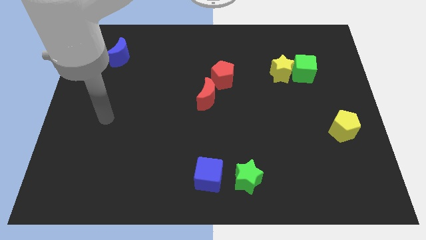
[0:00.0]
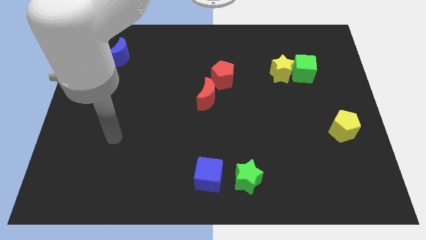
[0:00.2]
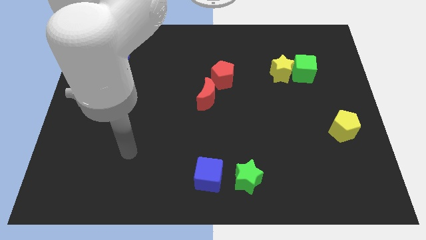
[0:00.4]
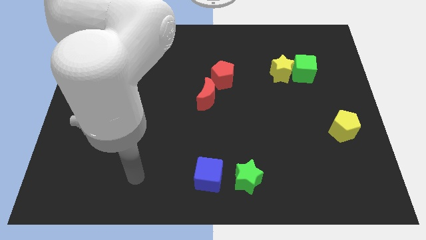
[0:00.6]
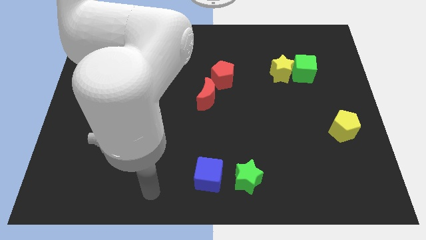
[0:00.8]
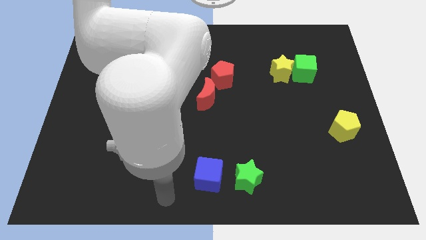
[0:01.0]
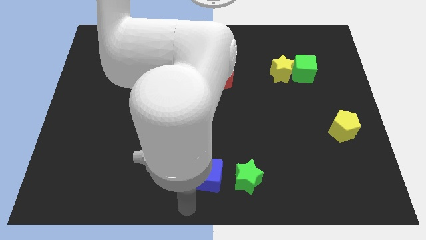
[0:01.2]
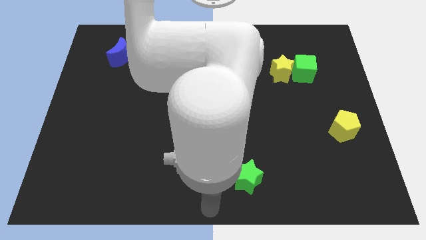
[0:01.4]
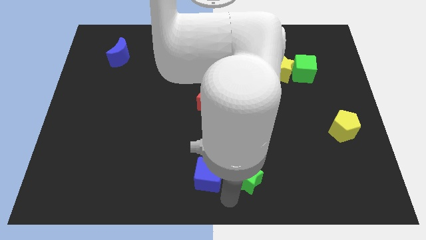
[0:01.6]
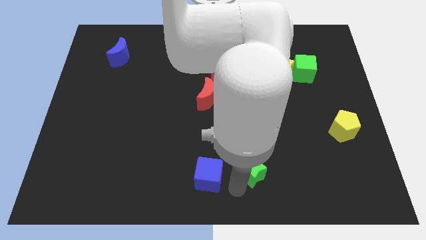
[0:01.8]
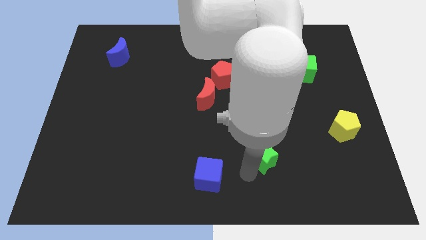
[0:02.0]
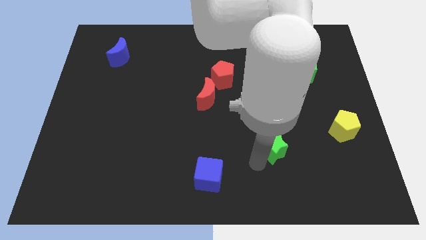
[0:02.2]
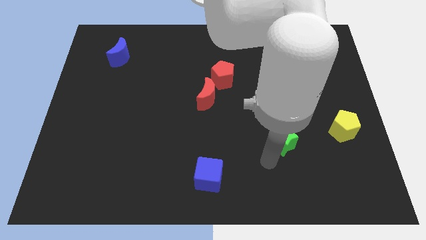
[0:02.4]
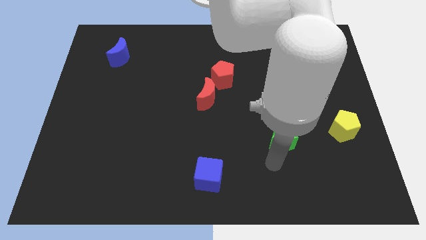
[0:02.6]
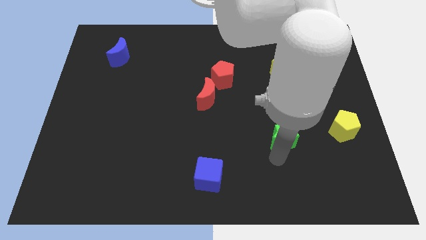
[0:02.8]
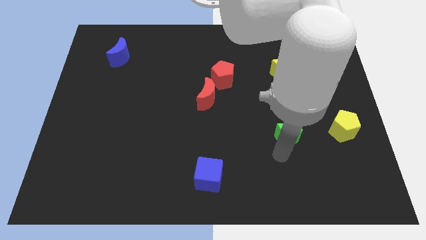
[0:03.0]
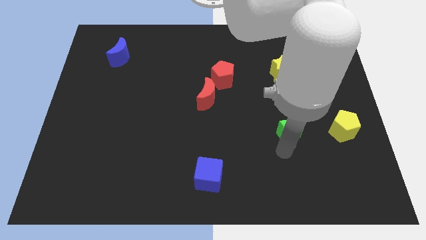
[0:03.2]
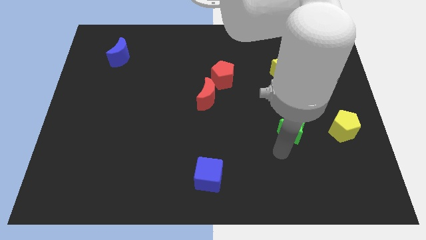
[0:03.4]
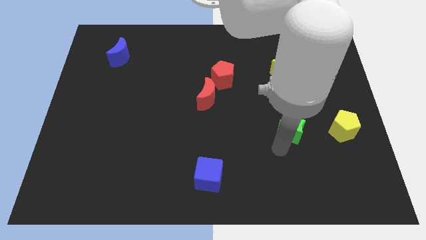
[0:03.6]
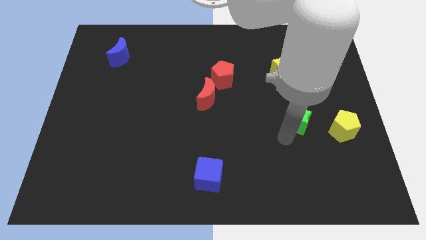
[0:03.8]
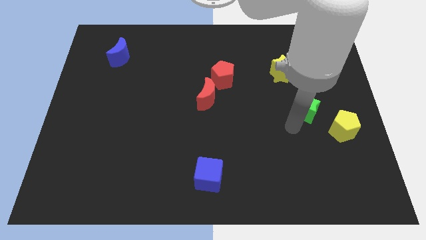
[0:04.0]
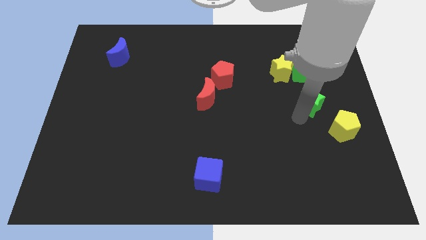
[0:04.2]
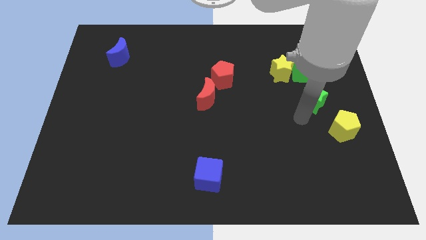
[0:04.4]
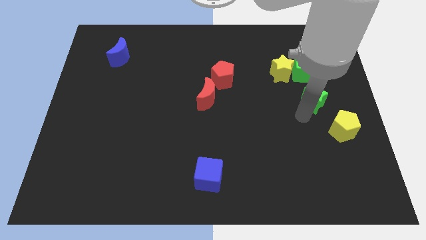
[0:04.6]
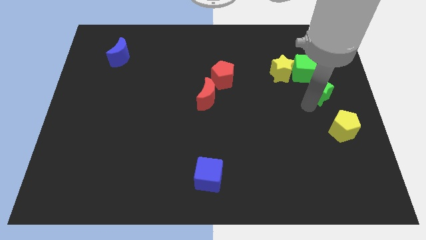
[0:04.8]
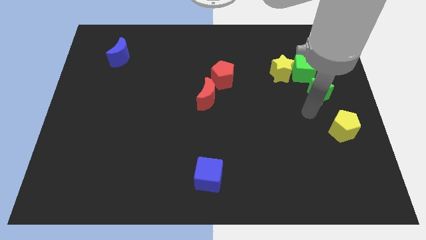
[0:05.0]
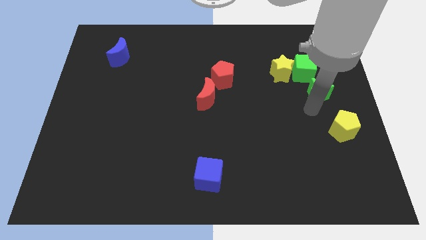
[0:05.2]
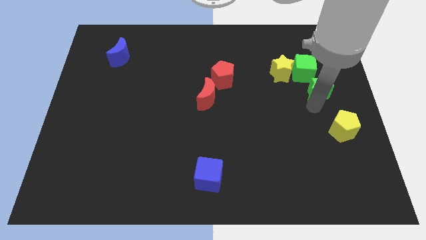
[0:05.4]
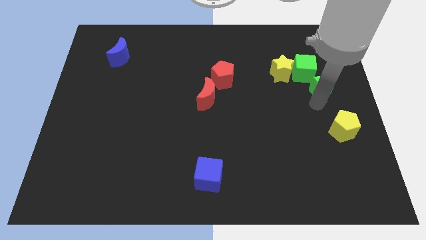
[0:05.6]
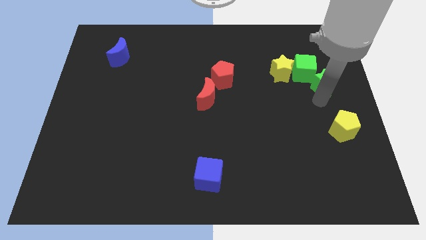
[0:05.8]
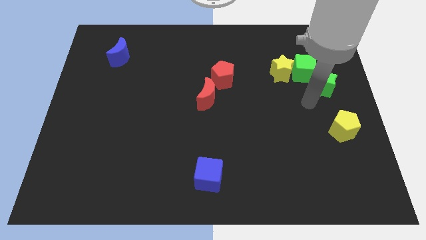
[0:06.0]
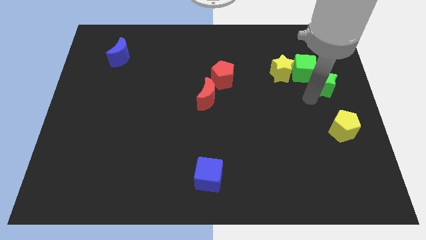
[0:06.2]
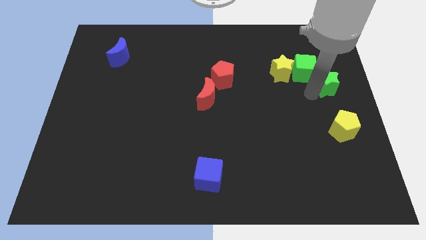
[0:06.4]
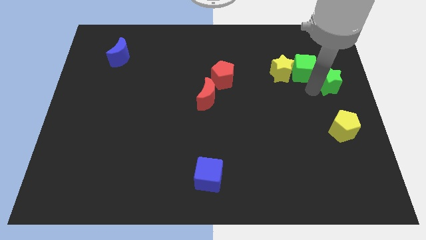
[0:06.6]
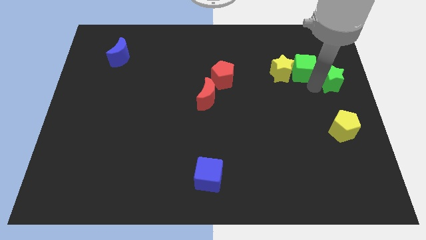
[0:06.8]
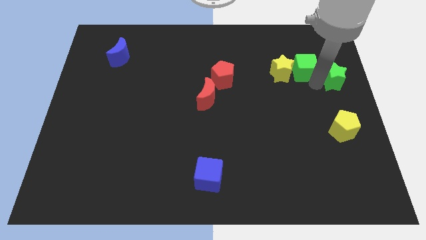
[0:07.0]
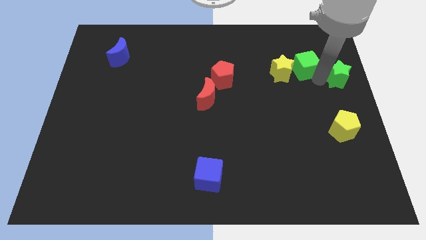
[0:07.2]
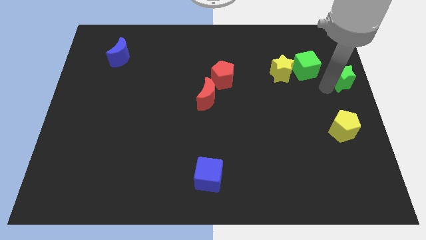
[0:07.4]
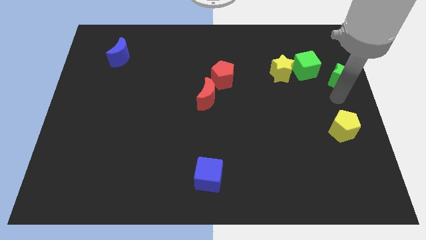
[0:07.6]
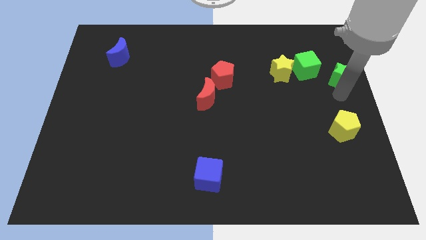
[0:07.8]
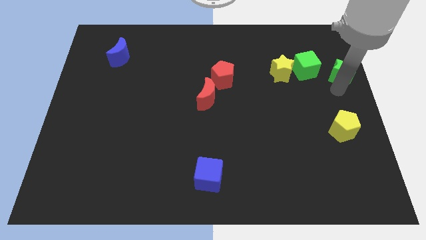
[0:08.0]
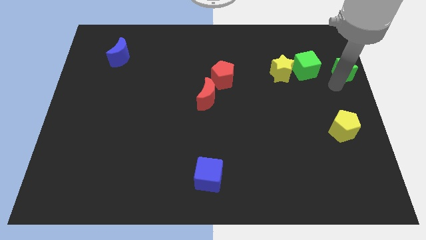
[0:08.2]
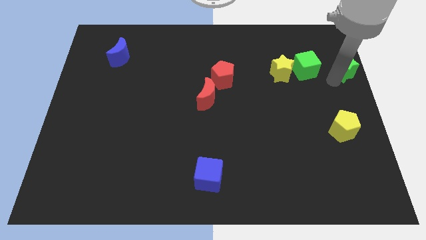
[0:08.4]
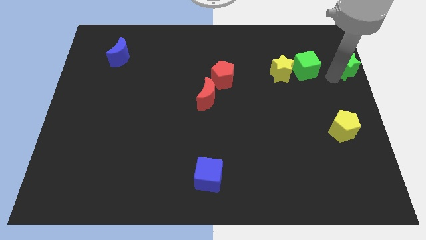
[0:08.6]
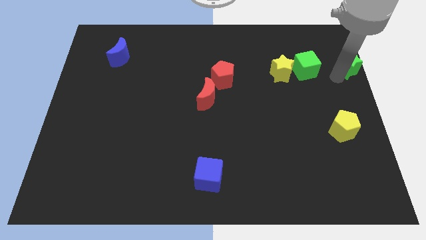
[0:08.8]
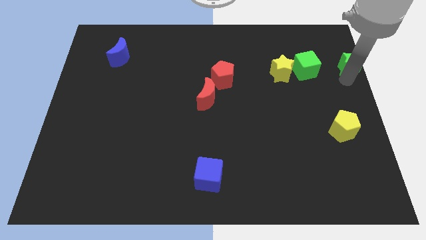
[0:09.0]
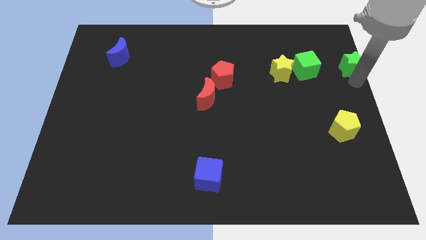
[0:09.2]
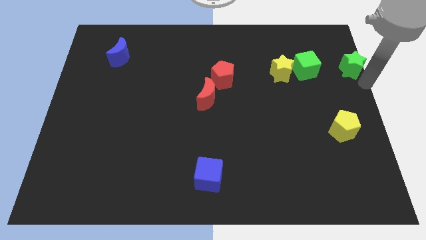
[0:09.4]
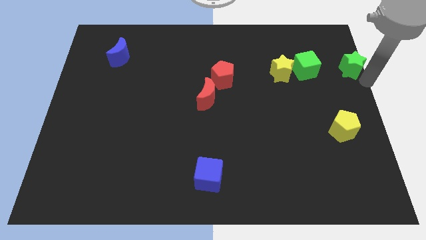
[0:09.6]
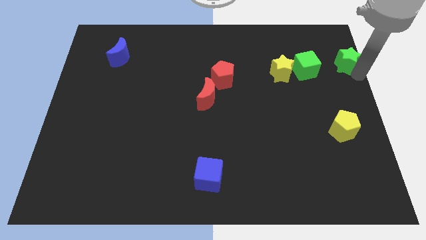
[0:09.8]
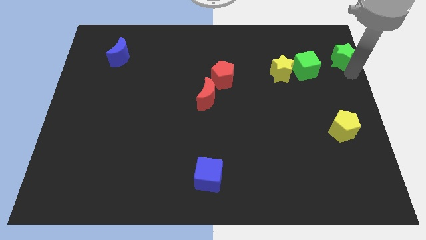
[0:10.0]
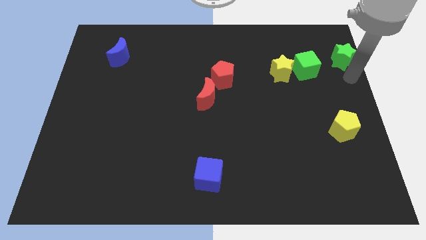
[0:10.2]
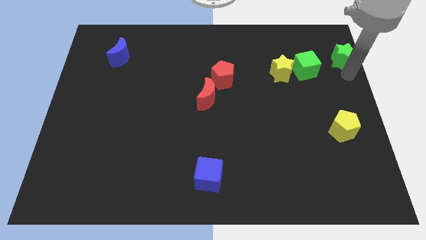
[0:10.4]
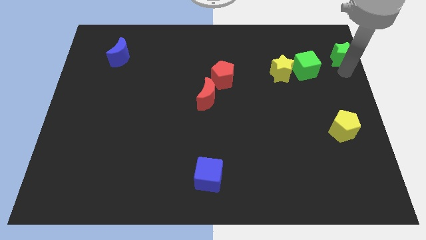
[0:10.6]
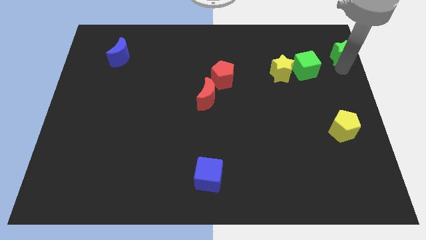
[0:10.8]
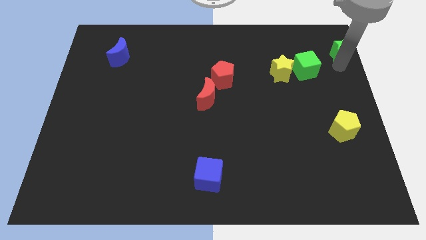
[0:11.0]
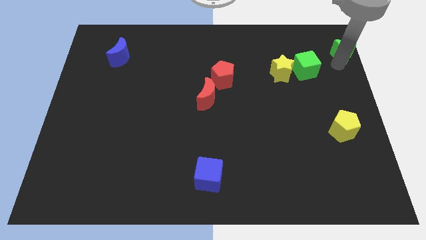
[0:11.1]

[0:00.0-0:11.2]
put the green star to the upper right corner

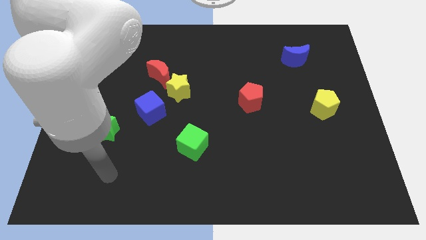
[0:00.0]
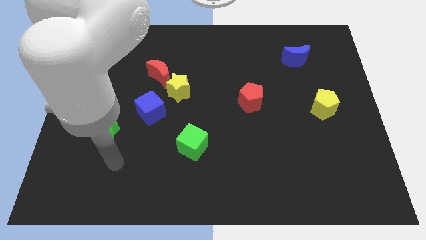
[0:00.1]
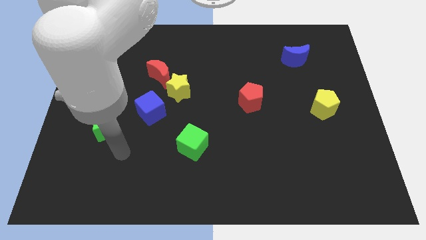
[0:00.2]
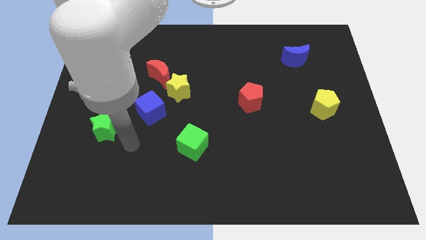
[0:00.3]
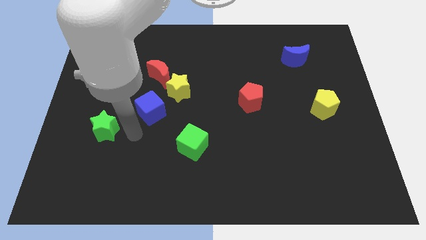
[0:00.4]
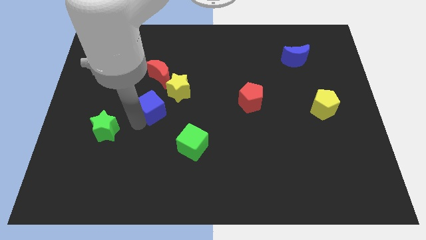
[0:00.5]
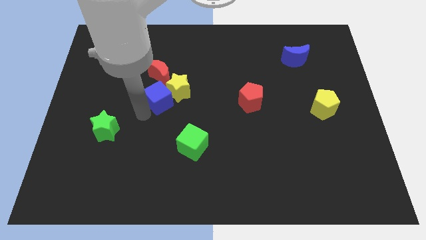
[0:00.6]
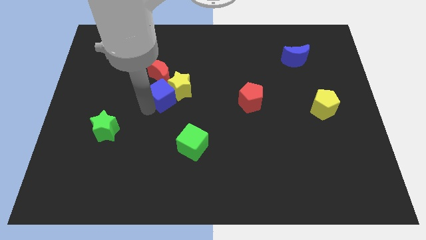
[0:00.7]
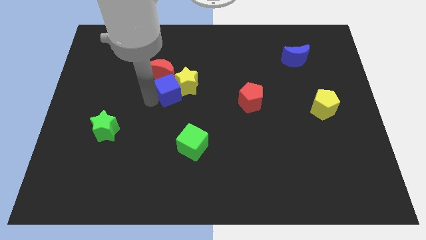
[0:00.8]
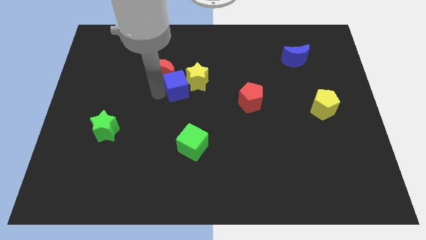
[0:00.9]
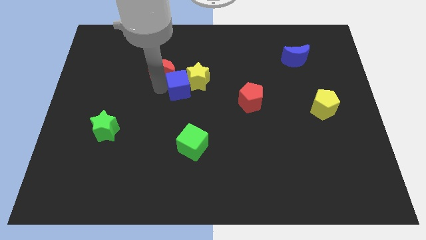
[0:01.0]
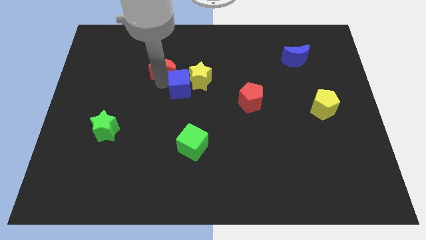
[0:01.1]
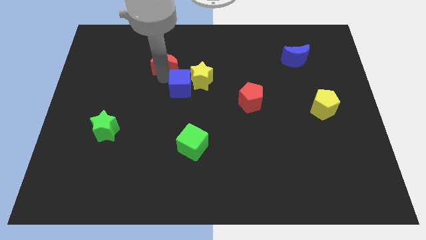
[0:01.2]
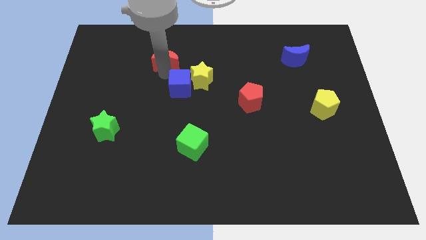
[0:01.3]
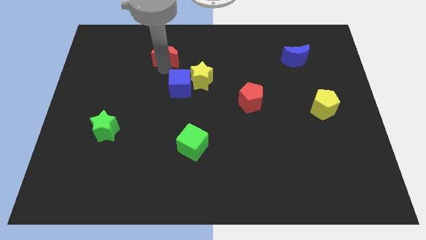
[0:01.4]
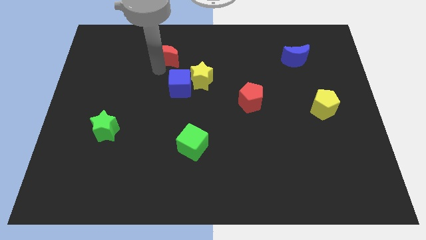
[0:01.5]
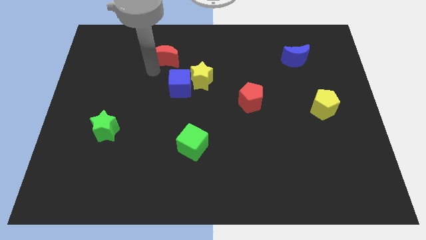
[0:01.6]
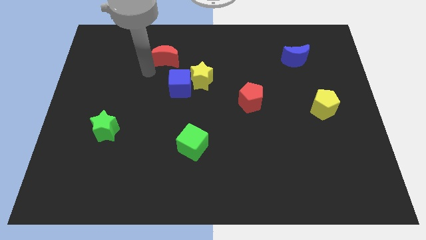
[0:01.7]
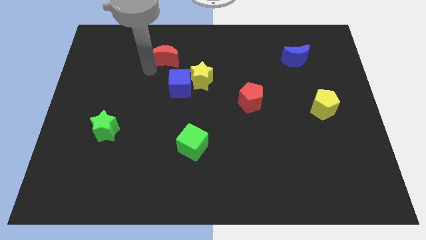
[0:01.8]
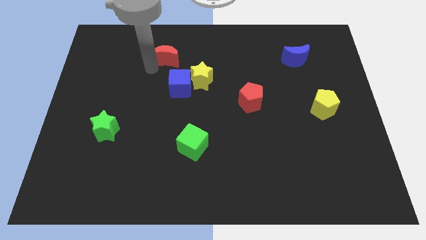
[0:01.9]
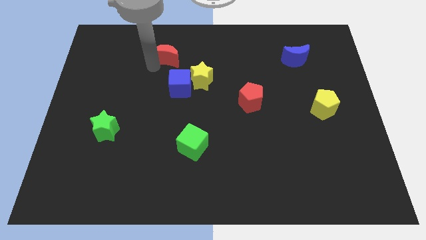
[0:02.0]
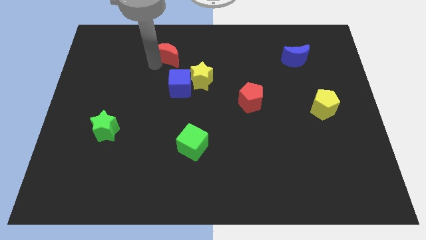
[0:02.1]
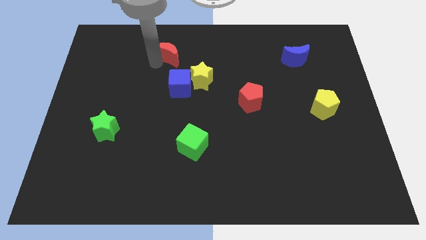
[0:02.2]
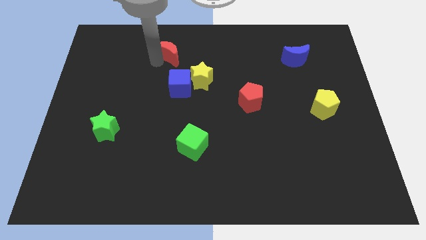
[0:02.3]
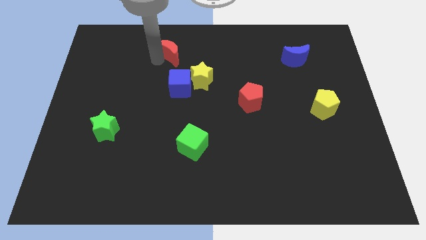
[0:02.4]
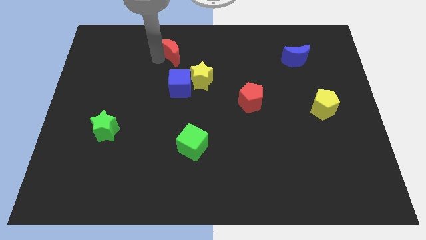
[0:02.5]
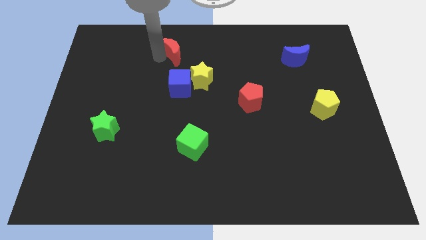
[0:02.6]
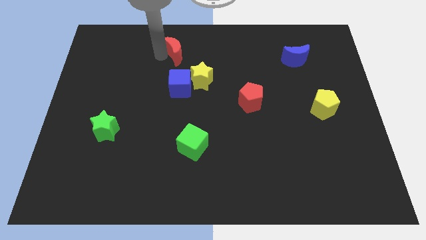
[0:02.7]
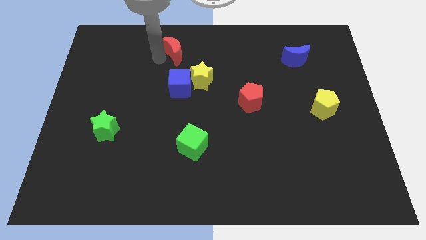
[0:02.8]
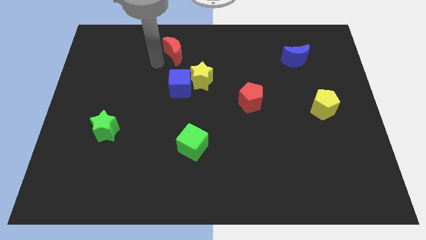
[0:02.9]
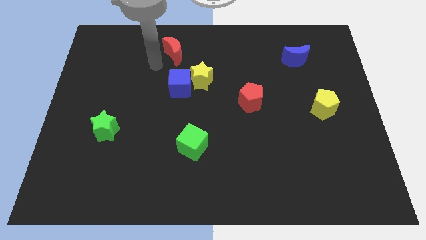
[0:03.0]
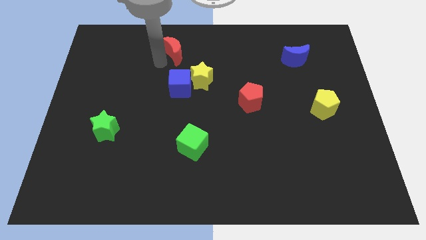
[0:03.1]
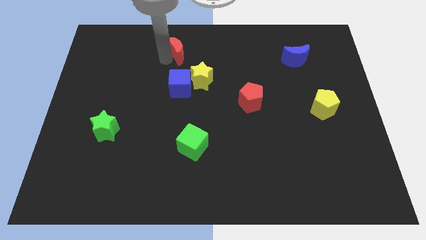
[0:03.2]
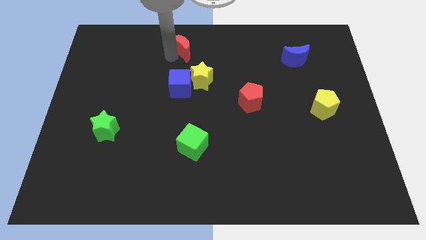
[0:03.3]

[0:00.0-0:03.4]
move the red moon to the top
